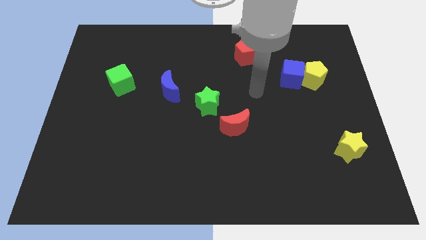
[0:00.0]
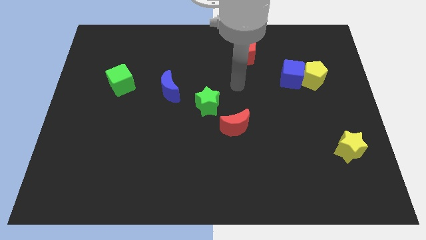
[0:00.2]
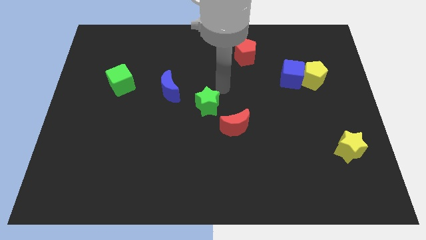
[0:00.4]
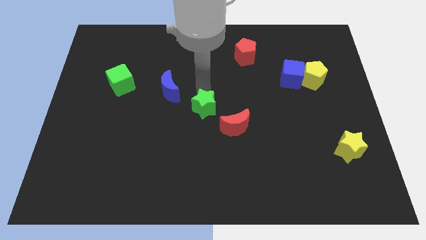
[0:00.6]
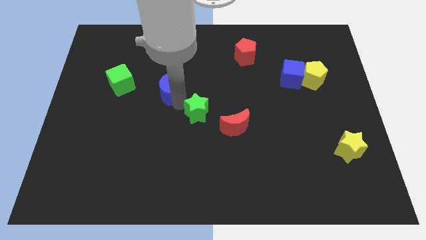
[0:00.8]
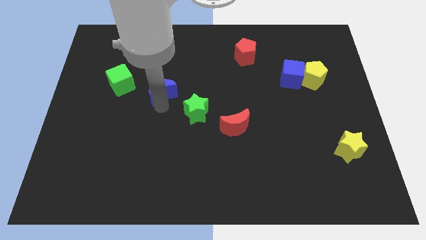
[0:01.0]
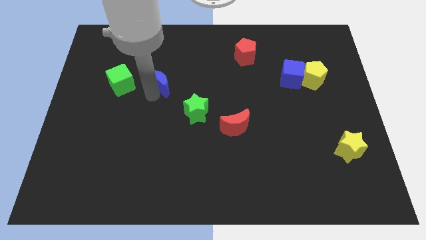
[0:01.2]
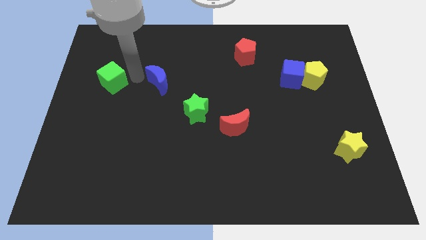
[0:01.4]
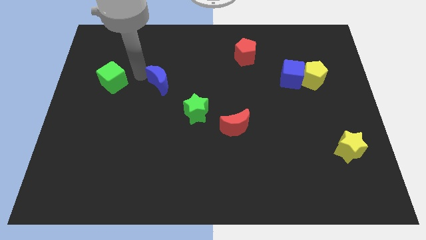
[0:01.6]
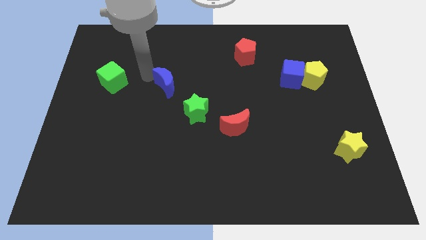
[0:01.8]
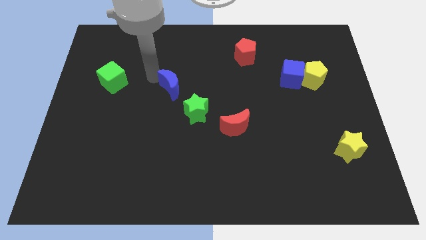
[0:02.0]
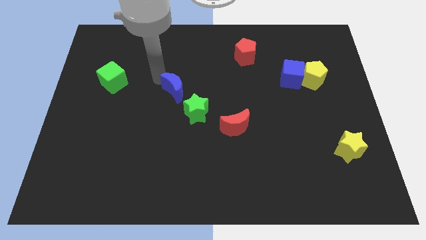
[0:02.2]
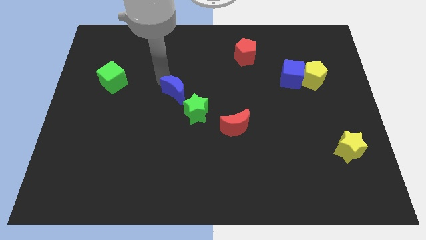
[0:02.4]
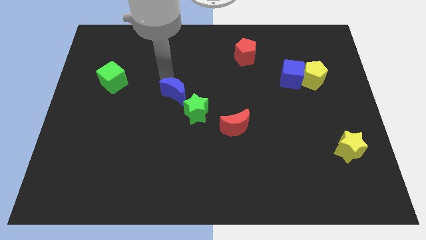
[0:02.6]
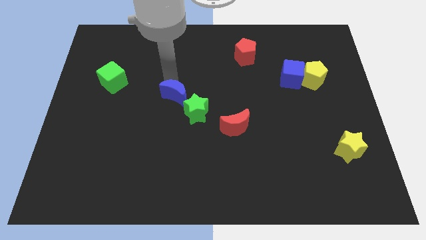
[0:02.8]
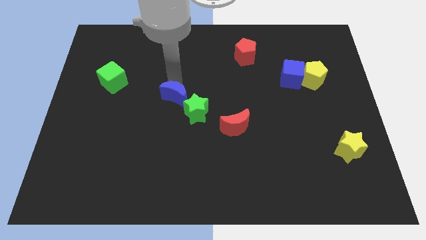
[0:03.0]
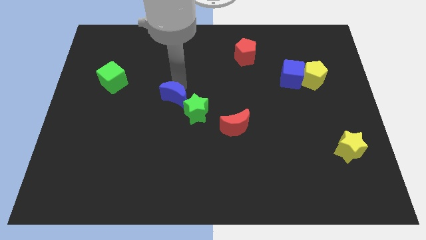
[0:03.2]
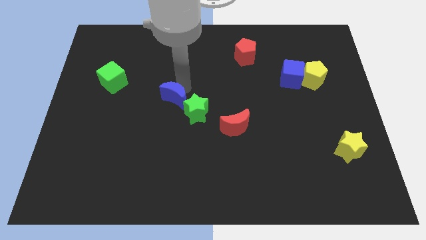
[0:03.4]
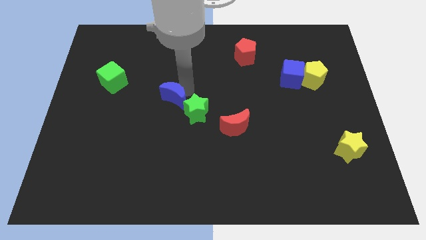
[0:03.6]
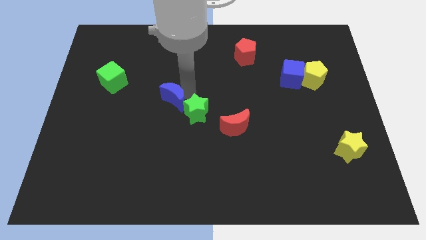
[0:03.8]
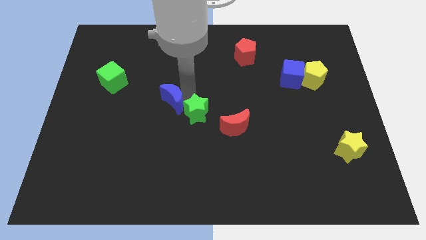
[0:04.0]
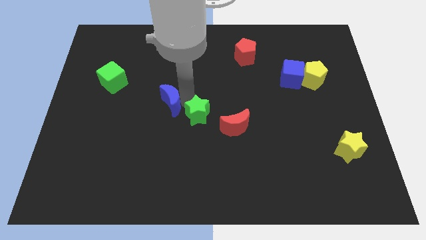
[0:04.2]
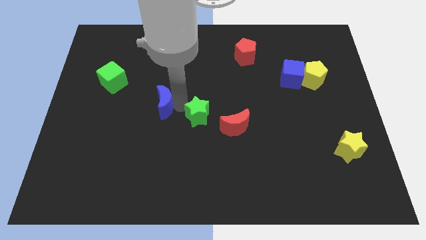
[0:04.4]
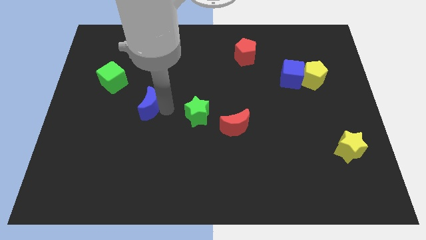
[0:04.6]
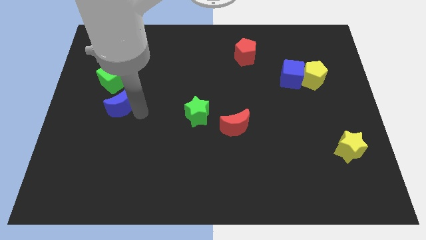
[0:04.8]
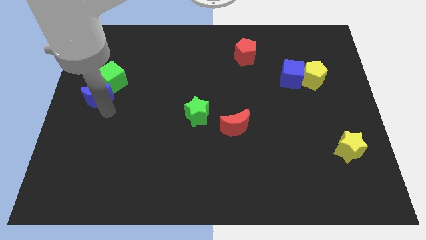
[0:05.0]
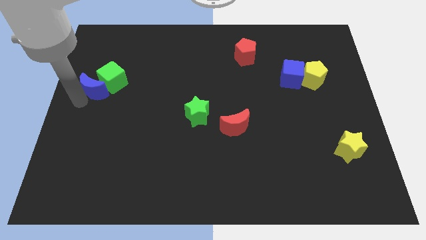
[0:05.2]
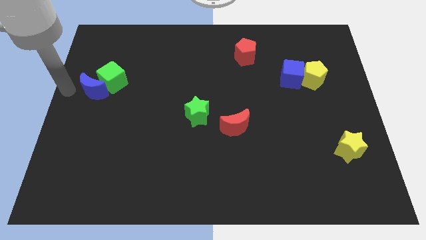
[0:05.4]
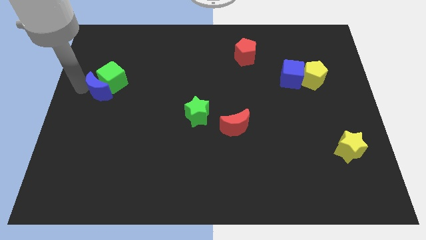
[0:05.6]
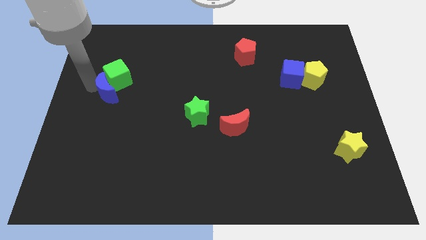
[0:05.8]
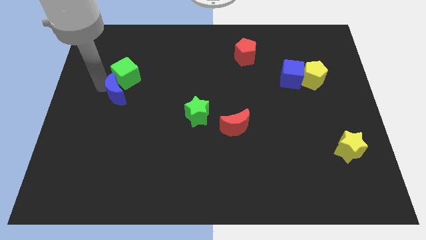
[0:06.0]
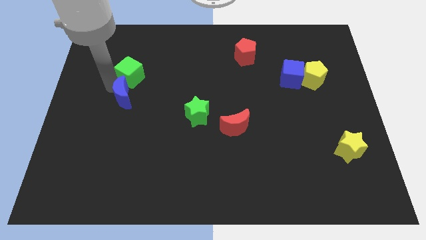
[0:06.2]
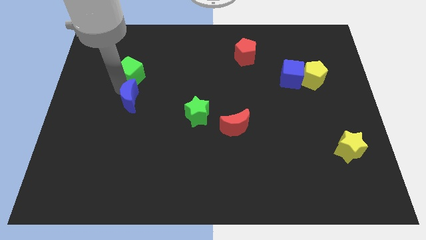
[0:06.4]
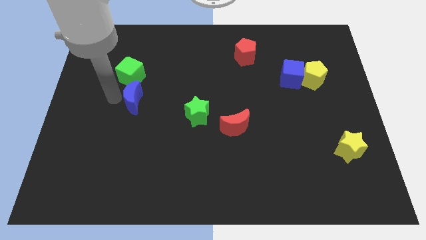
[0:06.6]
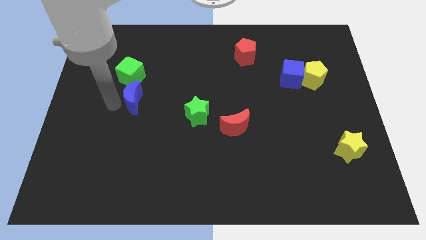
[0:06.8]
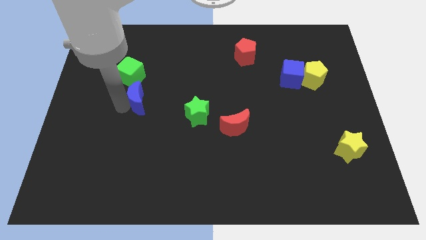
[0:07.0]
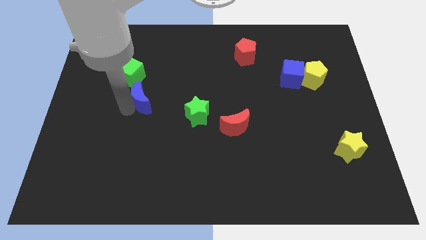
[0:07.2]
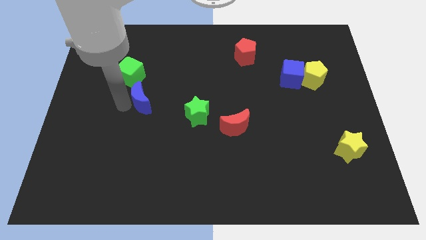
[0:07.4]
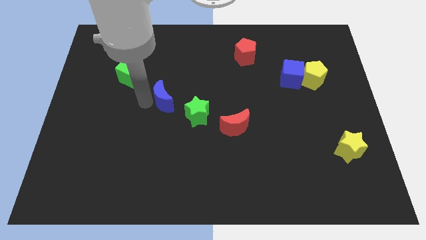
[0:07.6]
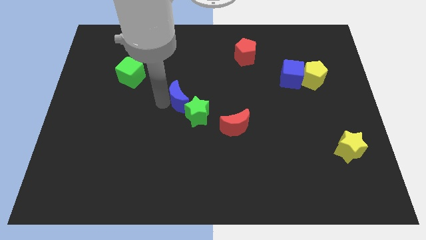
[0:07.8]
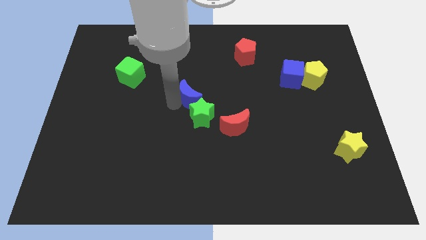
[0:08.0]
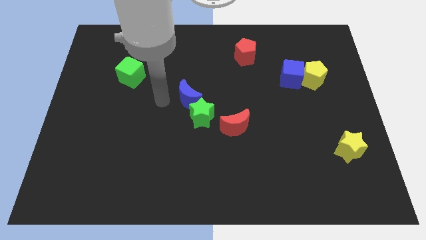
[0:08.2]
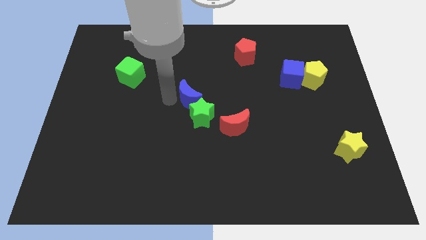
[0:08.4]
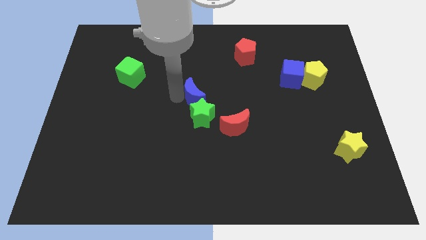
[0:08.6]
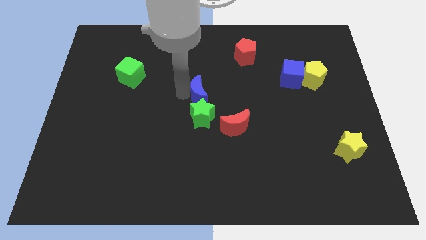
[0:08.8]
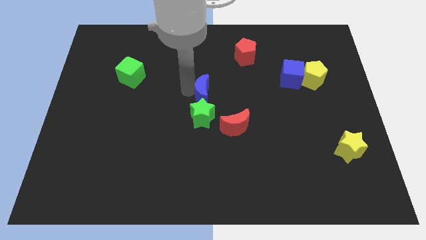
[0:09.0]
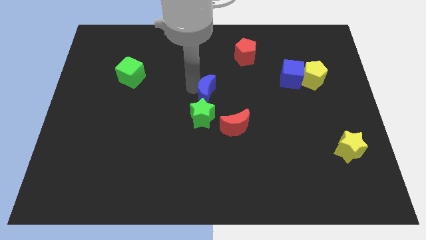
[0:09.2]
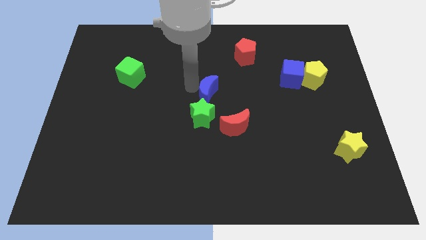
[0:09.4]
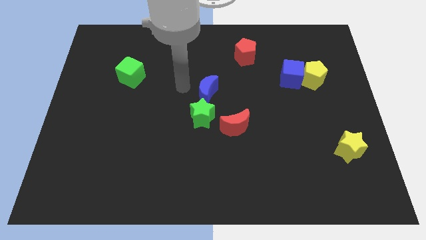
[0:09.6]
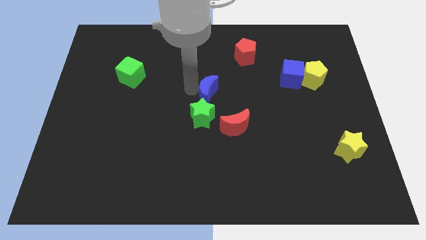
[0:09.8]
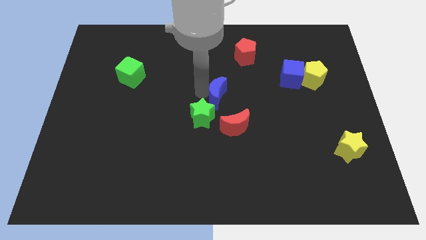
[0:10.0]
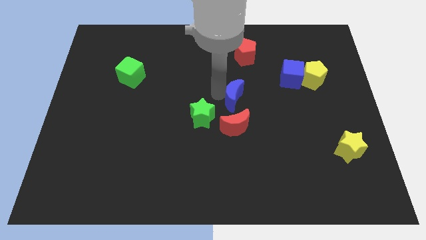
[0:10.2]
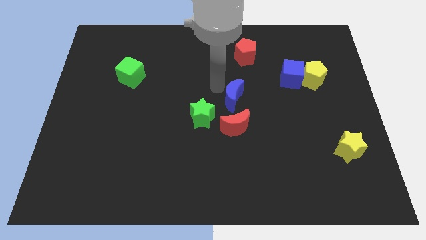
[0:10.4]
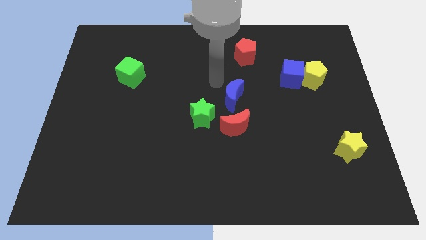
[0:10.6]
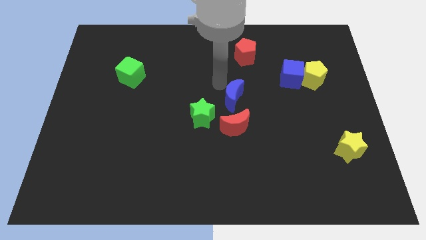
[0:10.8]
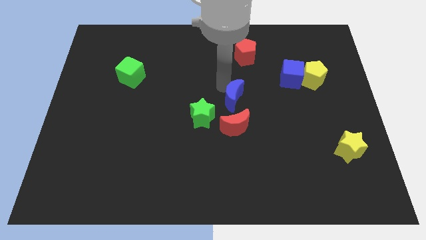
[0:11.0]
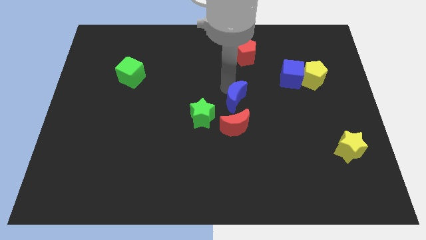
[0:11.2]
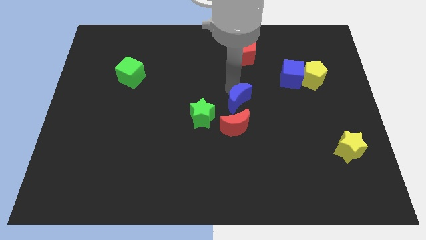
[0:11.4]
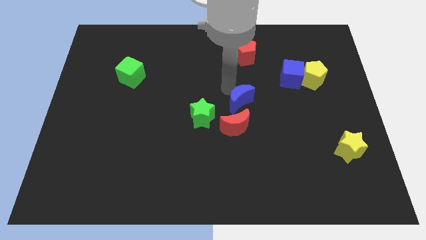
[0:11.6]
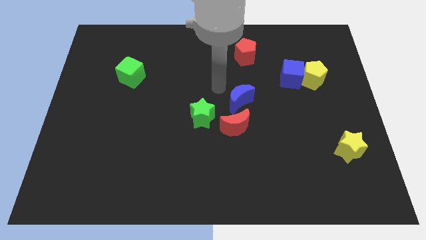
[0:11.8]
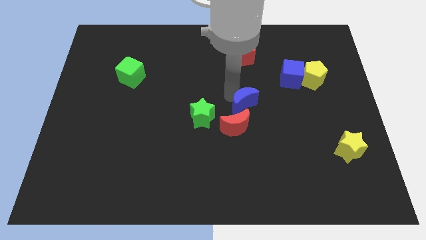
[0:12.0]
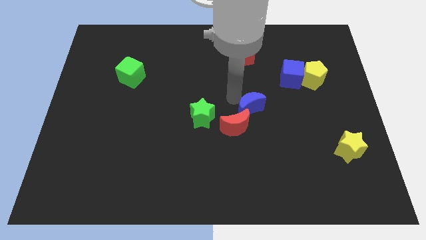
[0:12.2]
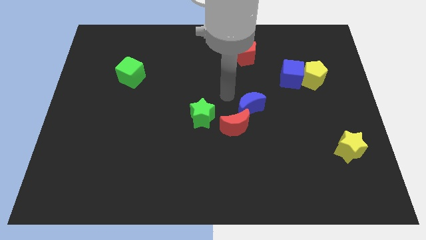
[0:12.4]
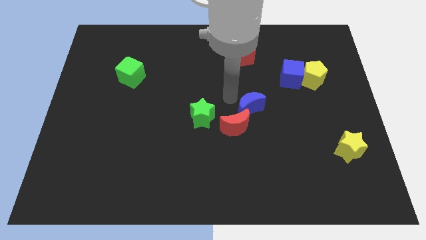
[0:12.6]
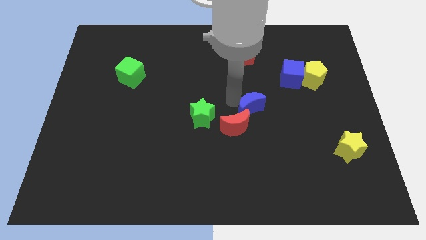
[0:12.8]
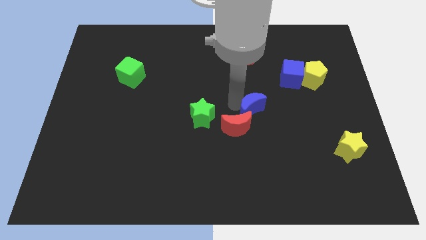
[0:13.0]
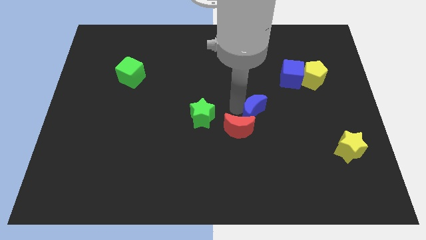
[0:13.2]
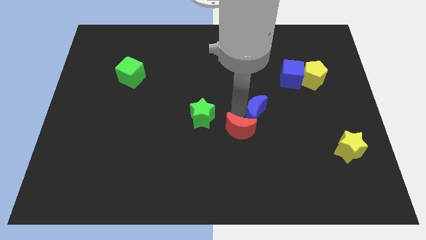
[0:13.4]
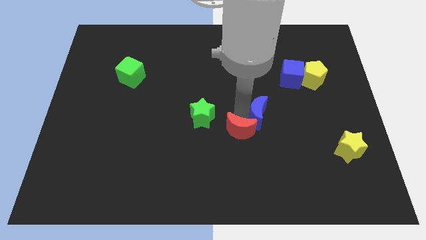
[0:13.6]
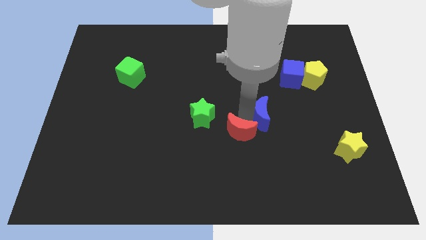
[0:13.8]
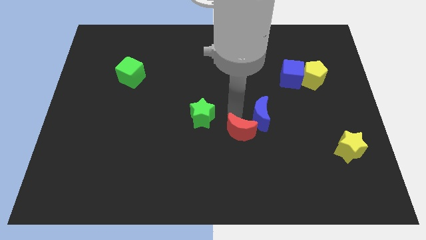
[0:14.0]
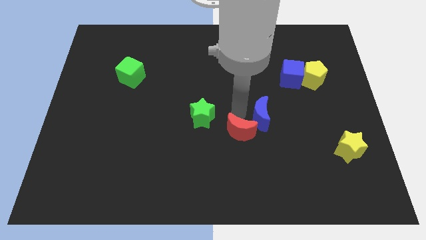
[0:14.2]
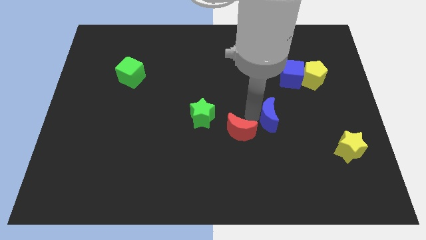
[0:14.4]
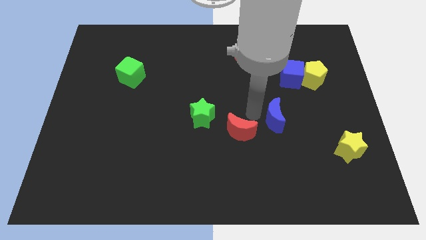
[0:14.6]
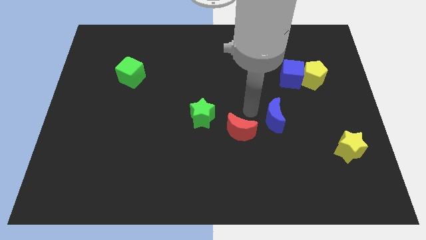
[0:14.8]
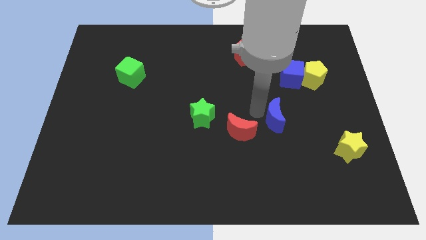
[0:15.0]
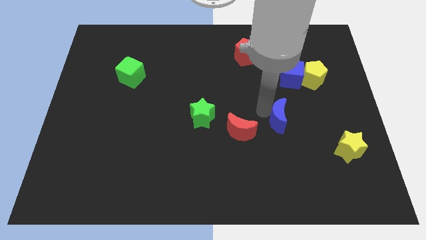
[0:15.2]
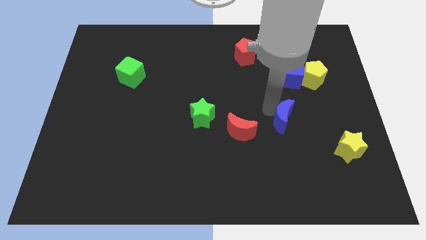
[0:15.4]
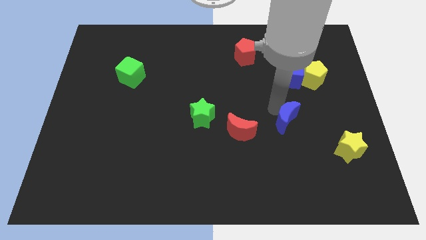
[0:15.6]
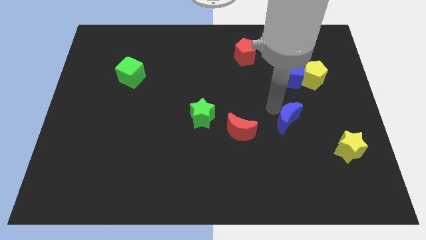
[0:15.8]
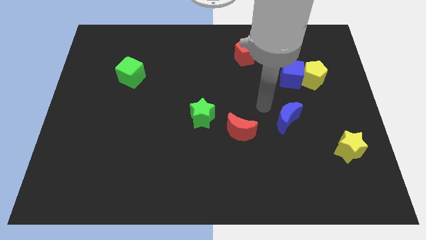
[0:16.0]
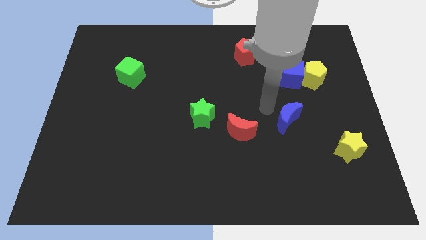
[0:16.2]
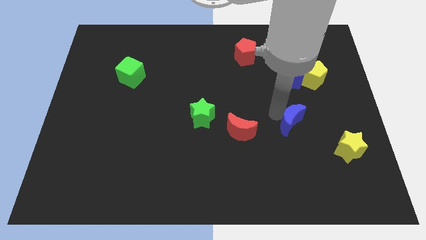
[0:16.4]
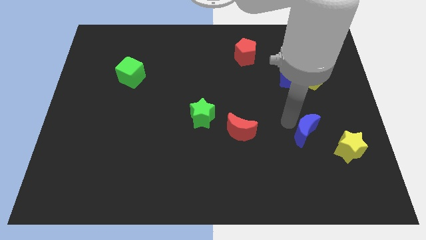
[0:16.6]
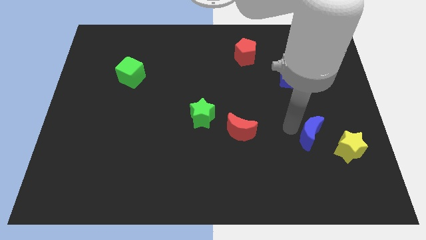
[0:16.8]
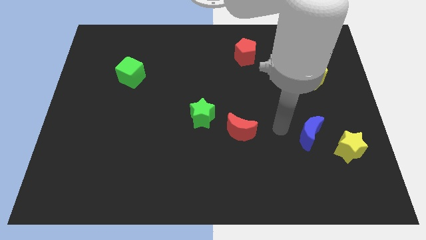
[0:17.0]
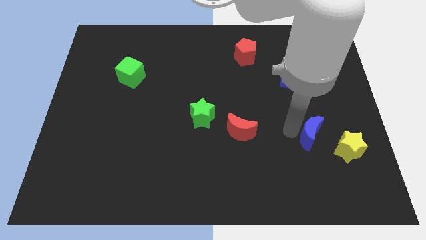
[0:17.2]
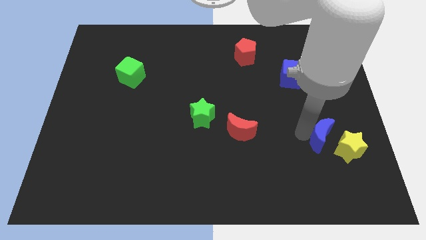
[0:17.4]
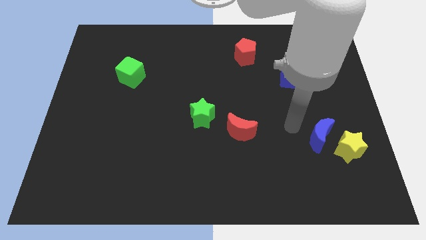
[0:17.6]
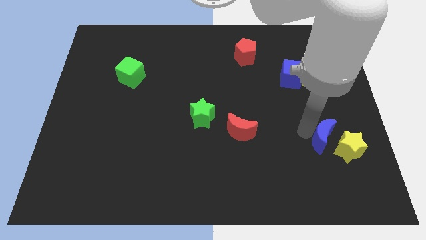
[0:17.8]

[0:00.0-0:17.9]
put the blue moon next to the yellow star
